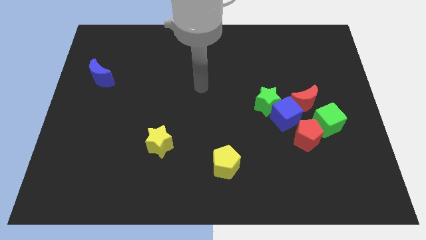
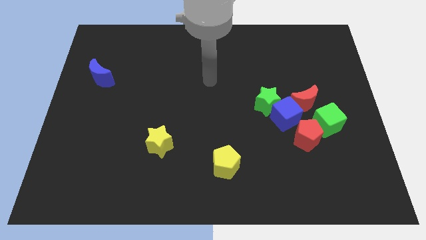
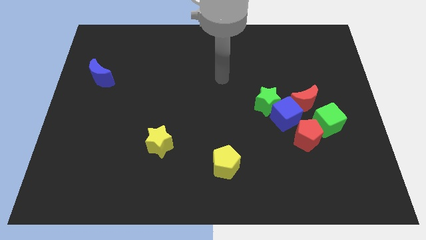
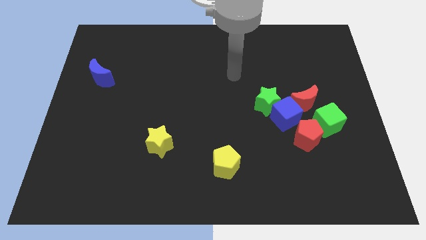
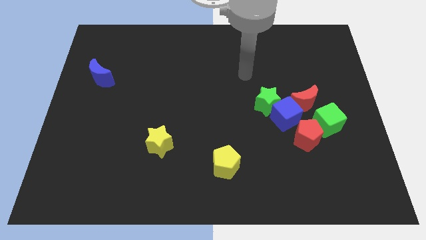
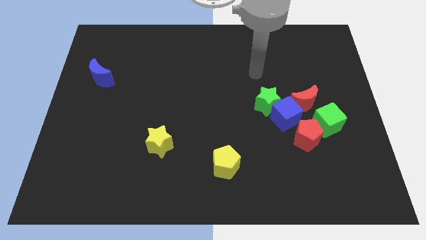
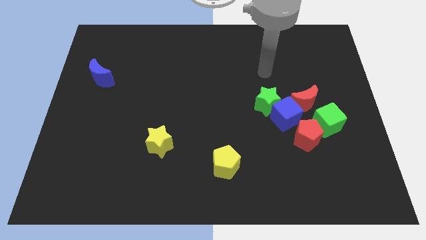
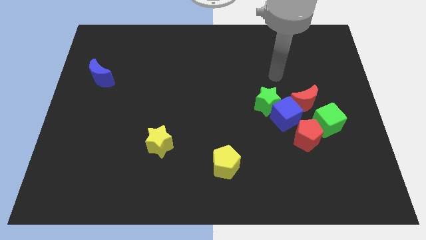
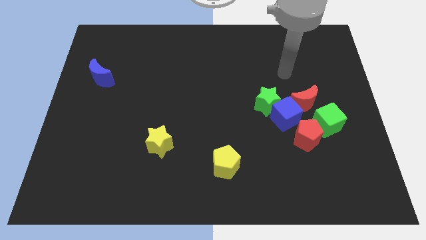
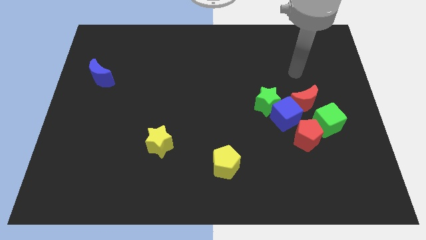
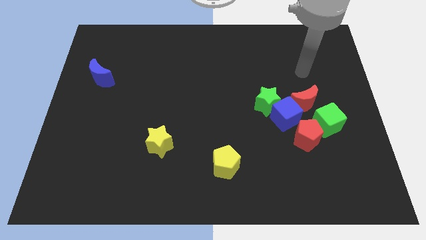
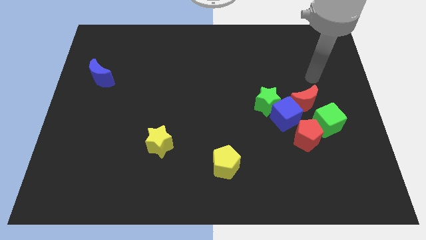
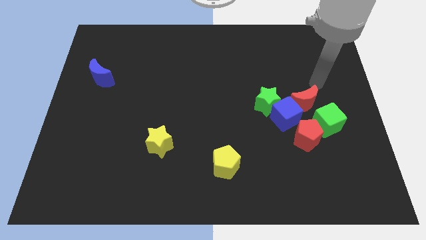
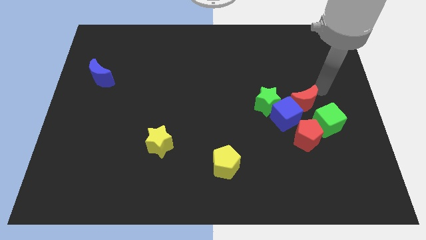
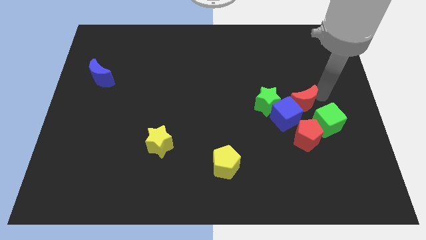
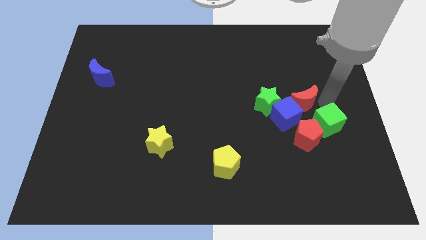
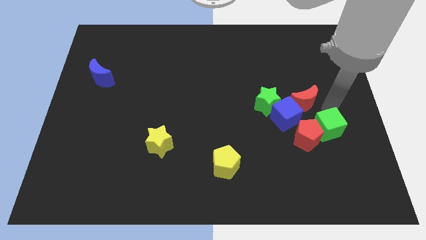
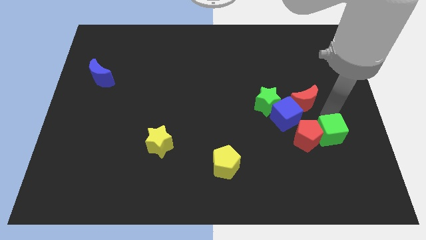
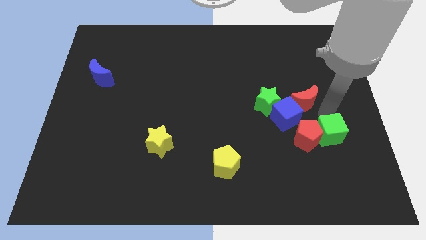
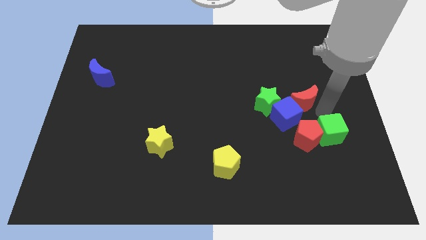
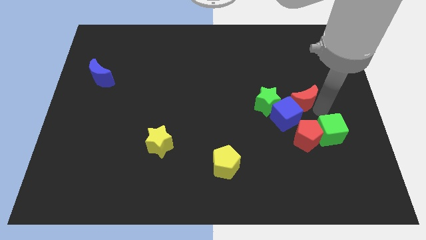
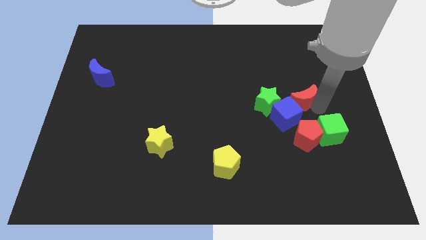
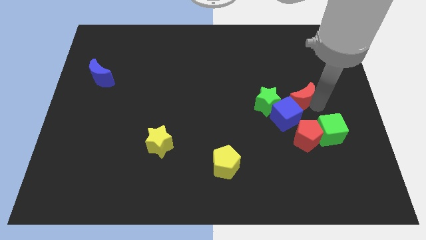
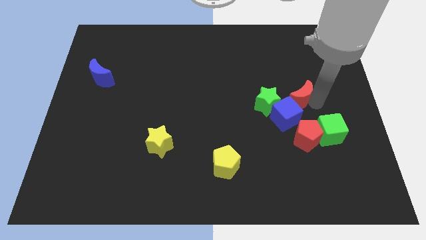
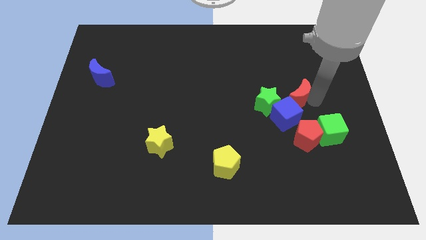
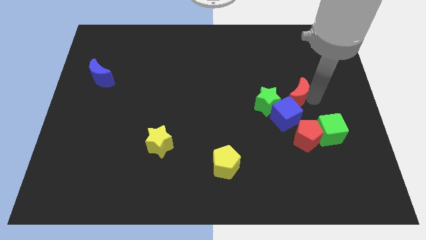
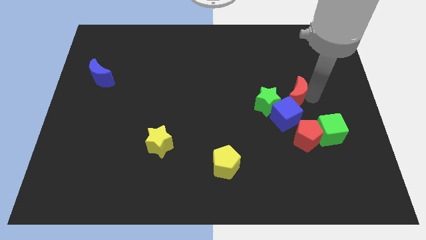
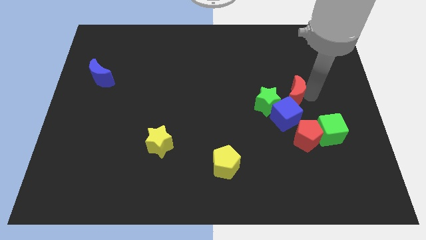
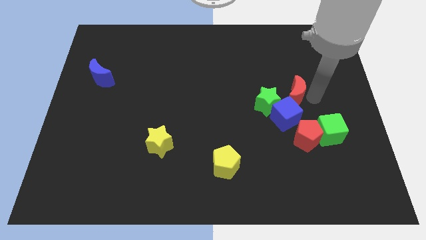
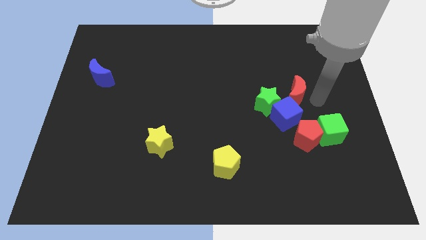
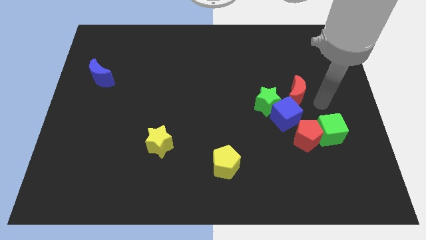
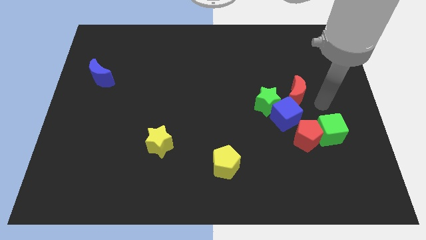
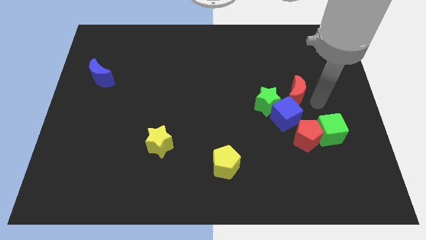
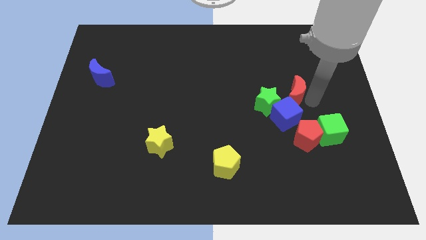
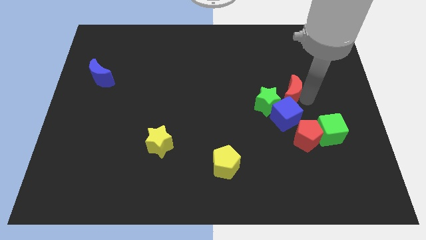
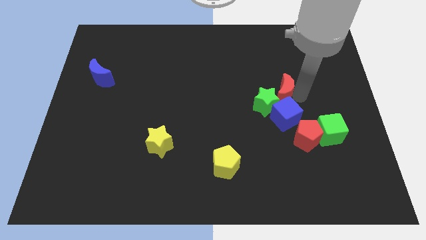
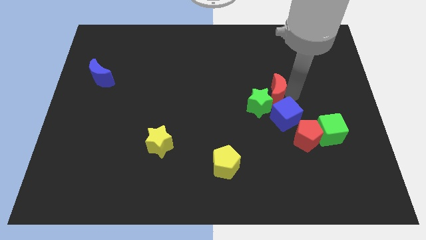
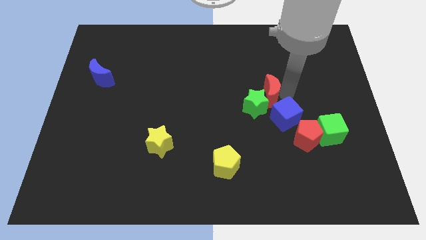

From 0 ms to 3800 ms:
push the red moon to the left a little

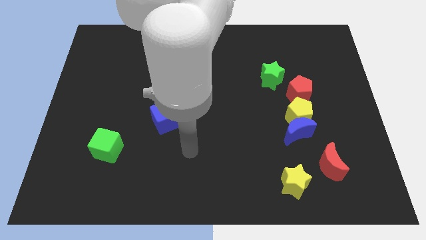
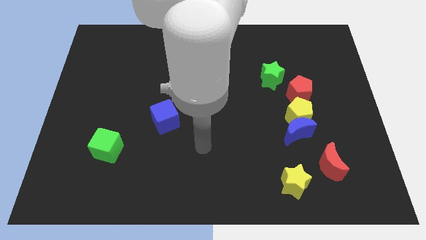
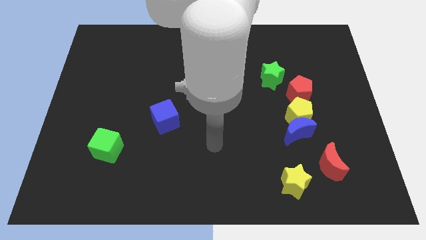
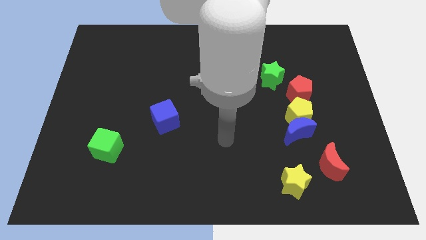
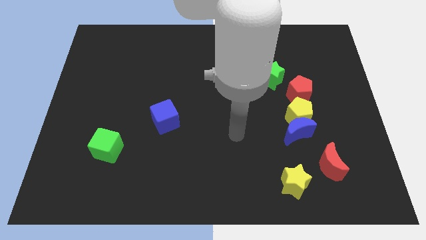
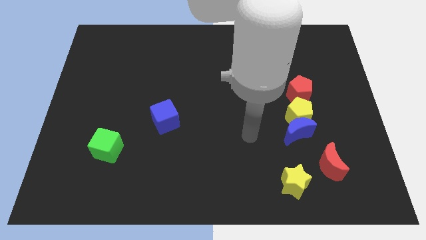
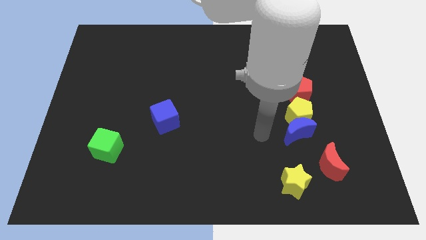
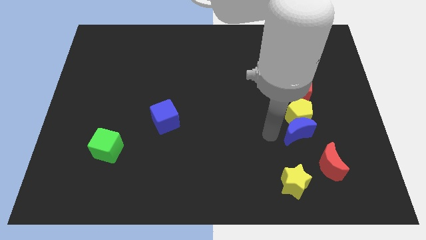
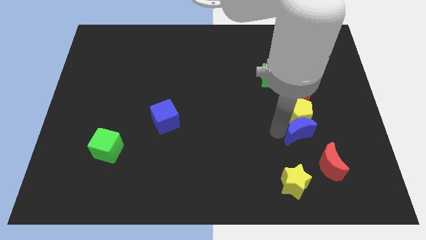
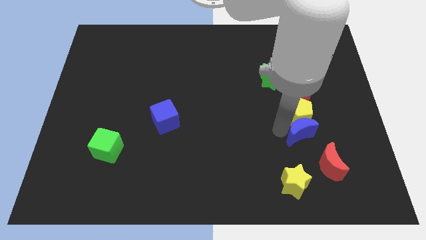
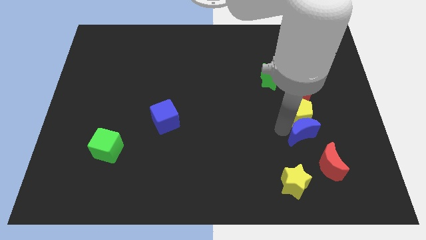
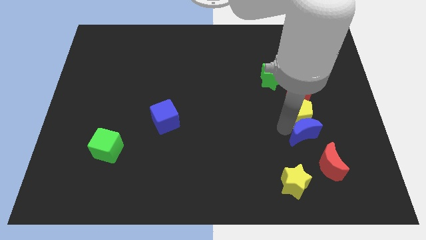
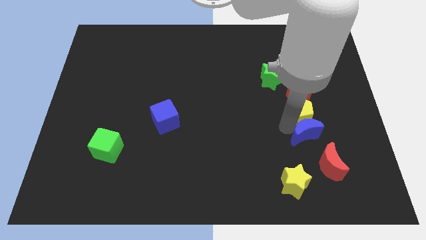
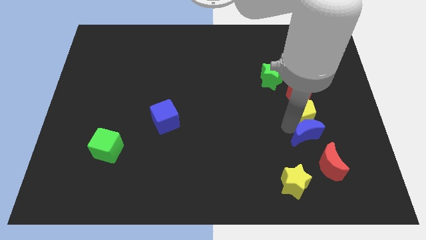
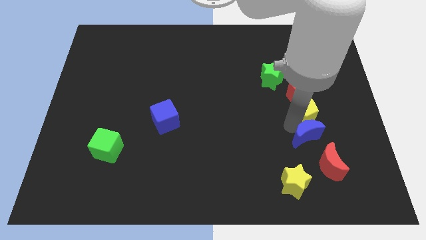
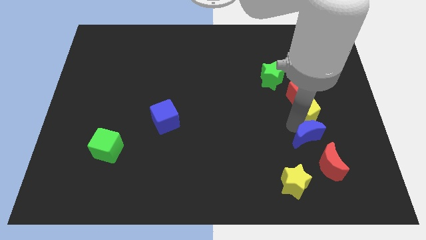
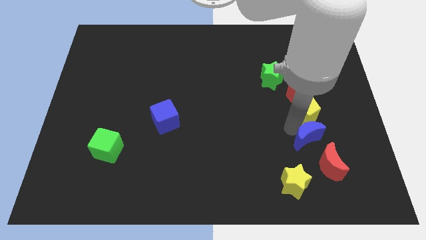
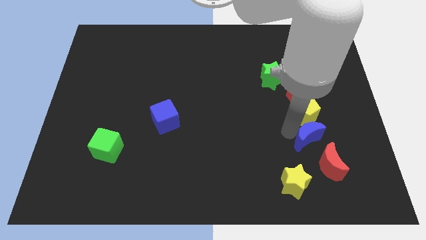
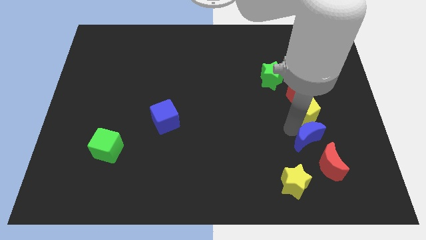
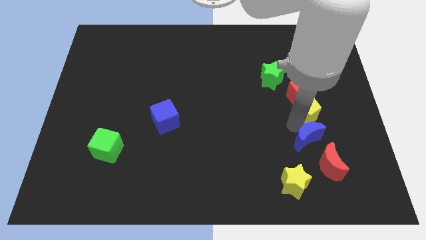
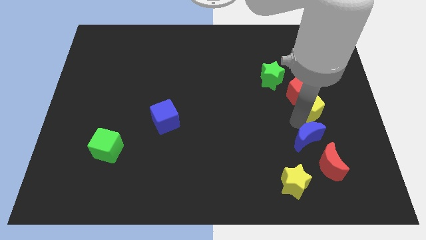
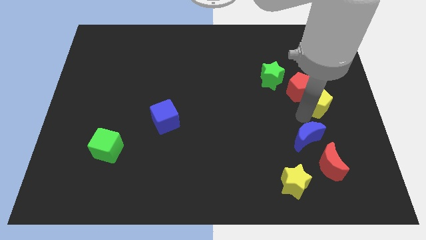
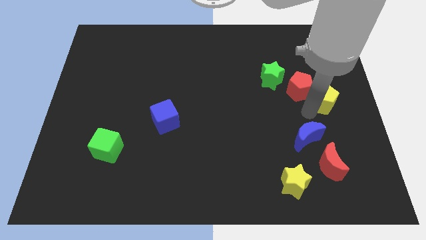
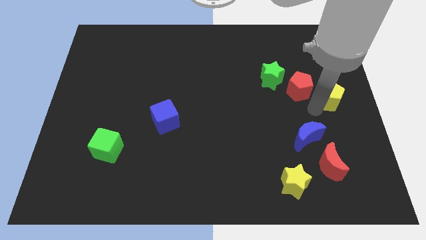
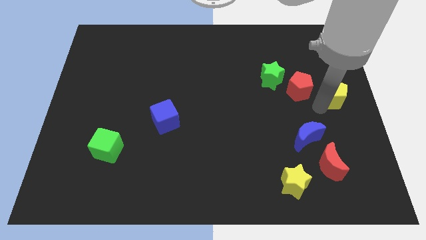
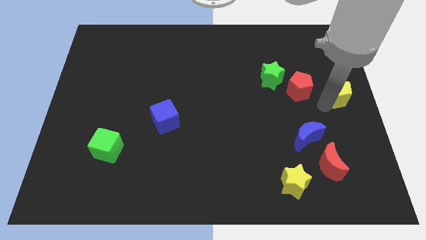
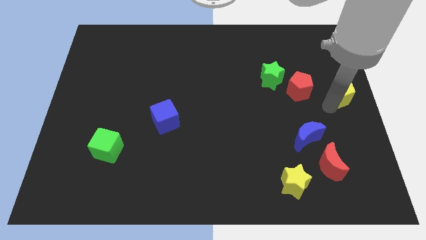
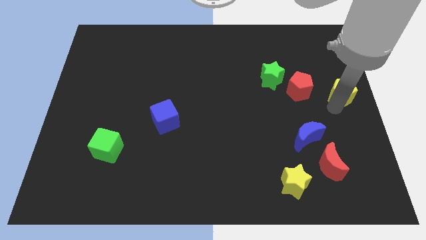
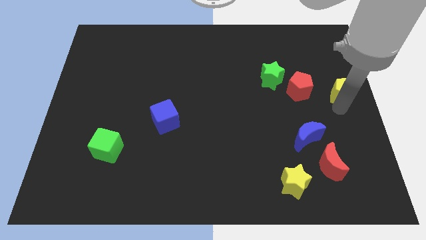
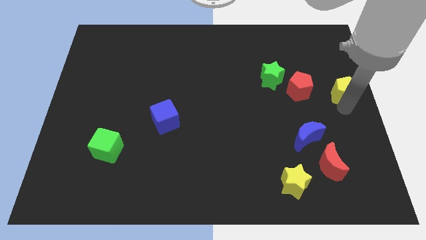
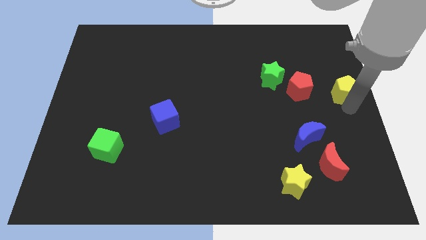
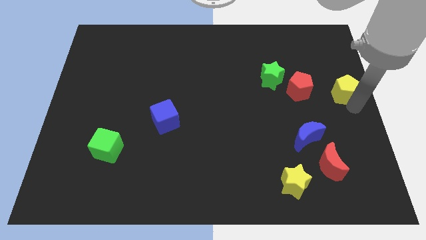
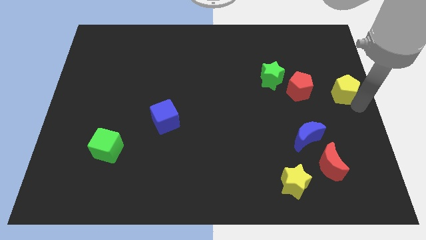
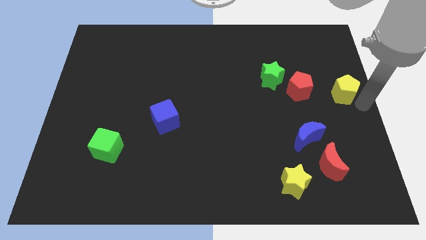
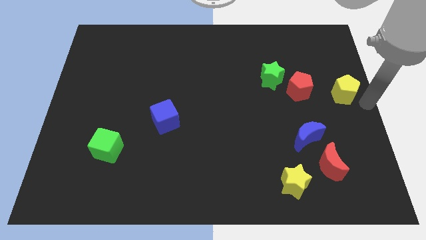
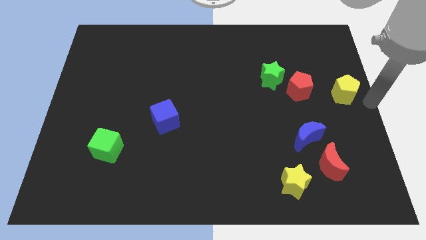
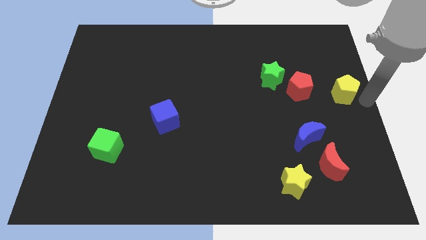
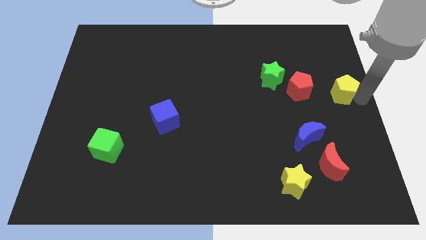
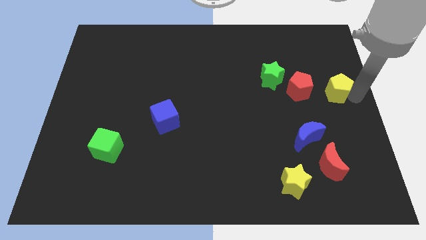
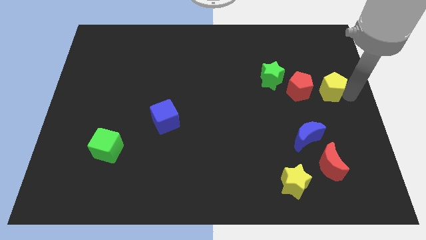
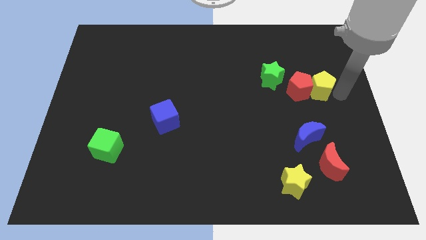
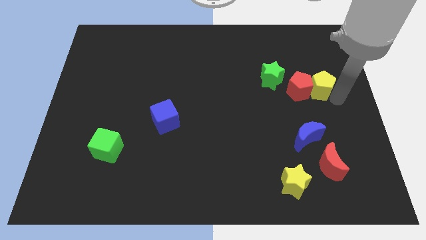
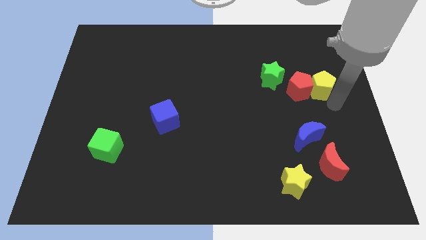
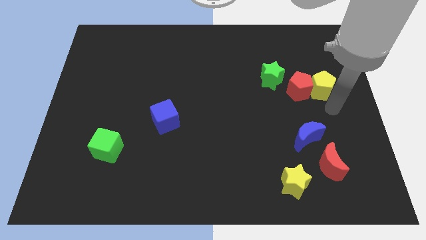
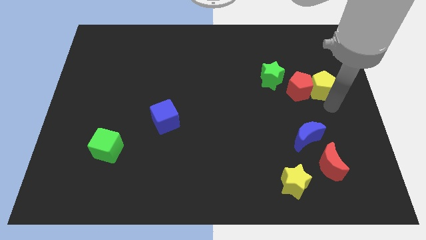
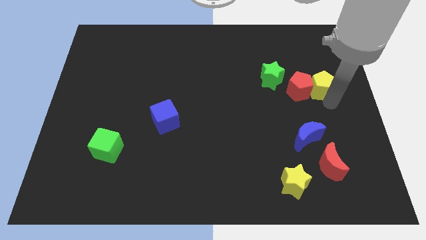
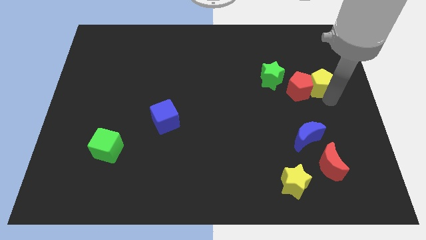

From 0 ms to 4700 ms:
slightly move the yellow pentagon upwards

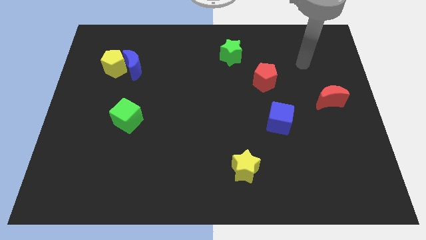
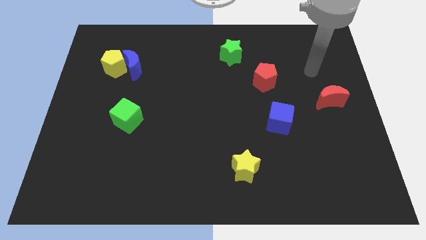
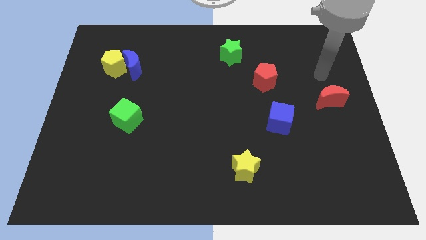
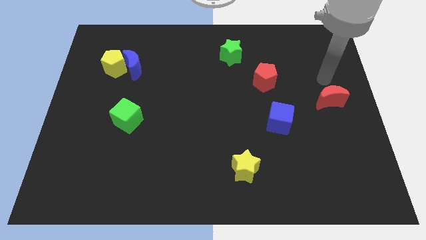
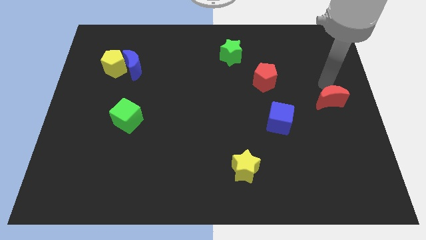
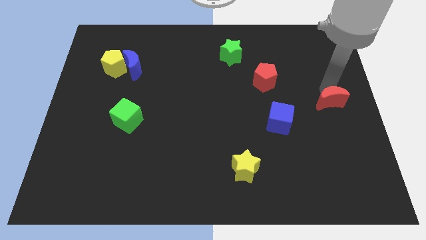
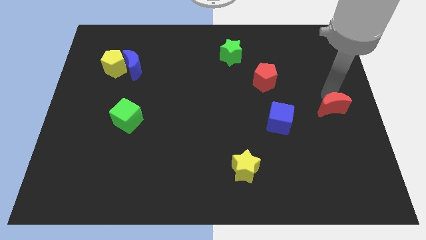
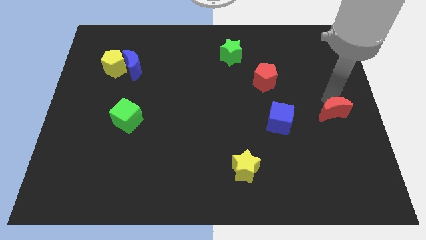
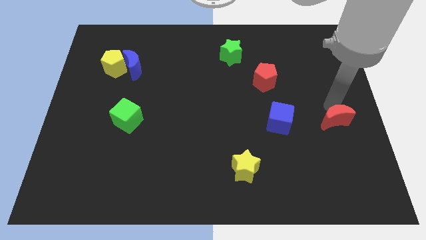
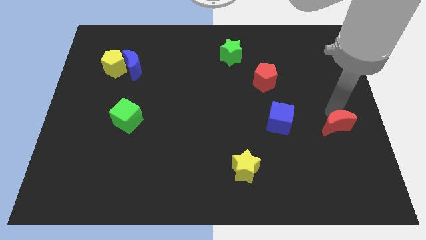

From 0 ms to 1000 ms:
move the red moon downwards somewhat
